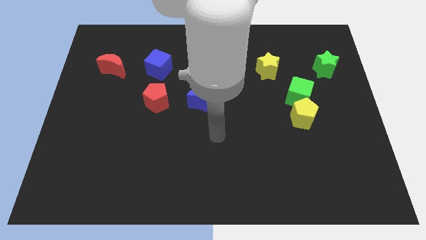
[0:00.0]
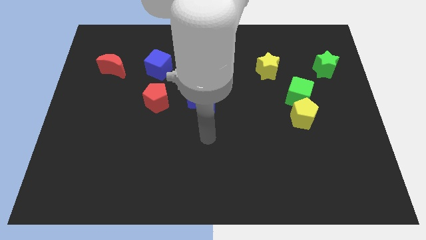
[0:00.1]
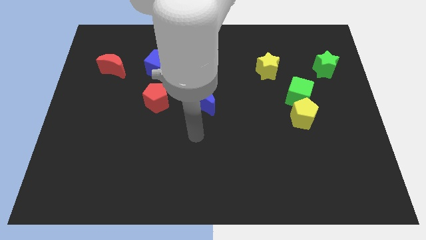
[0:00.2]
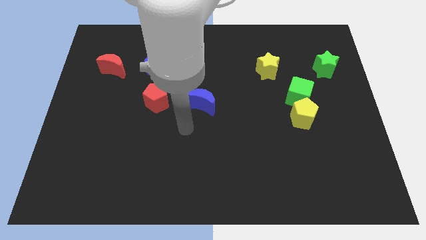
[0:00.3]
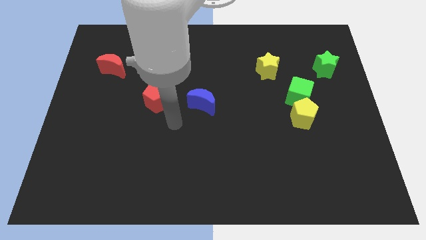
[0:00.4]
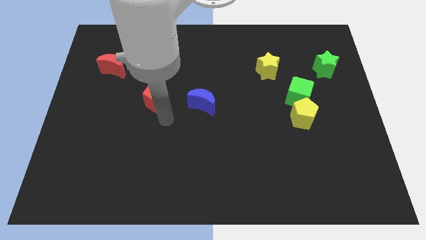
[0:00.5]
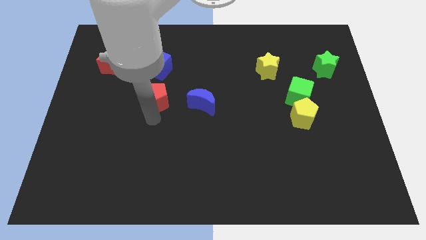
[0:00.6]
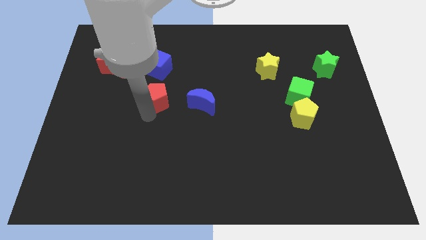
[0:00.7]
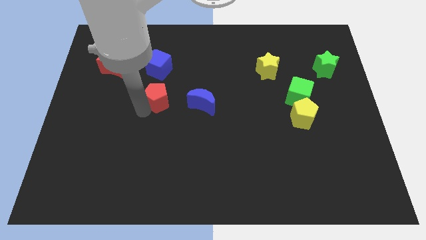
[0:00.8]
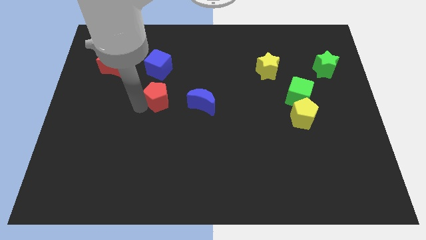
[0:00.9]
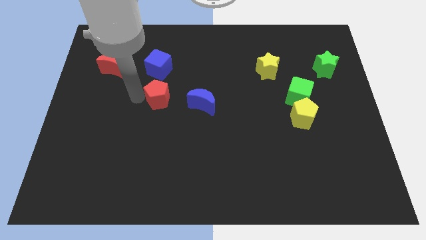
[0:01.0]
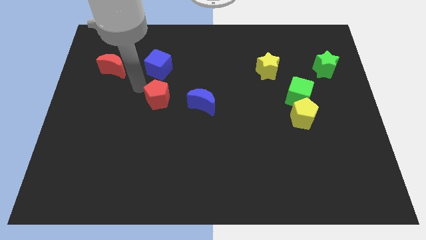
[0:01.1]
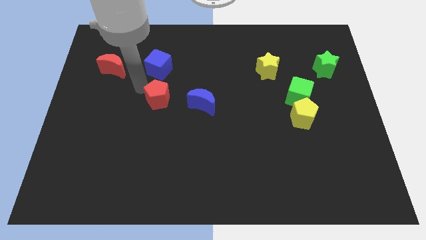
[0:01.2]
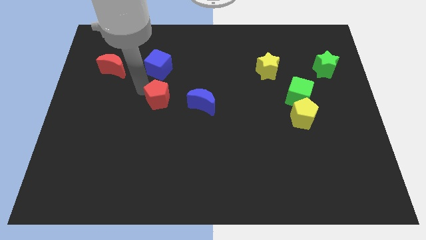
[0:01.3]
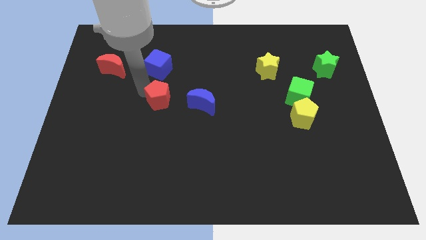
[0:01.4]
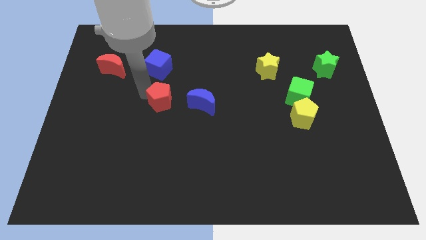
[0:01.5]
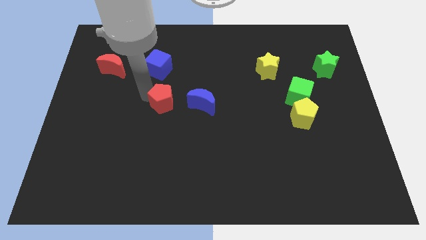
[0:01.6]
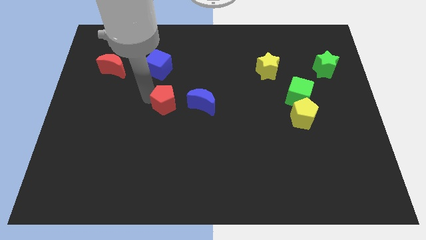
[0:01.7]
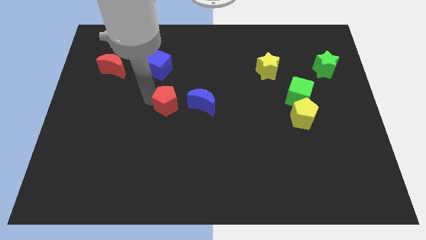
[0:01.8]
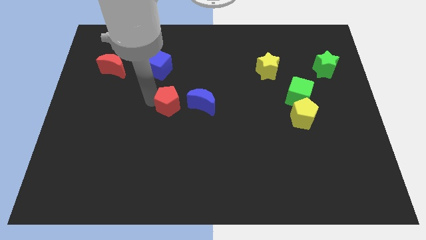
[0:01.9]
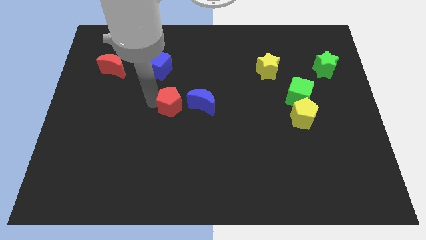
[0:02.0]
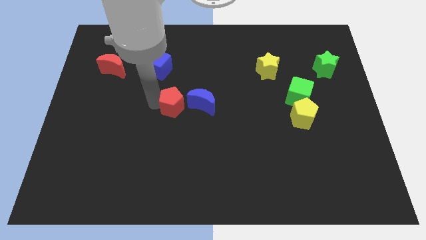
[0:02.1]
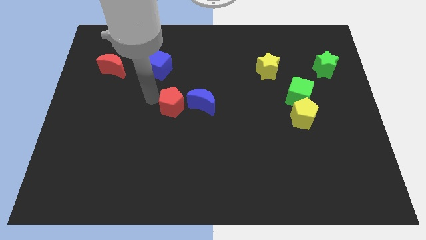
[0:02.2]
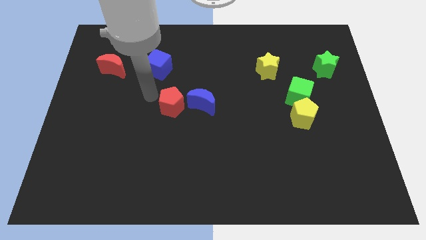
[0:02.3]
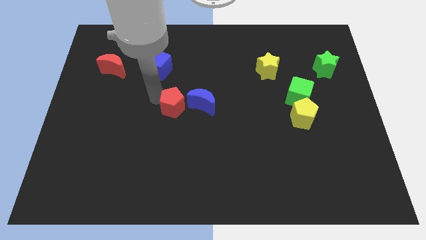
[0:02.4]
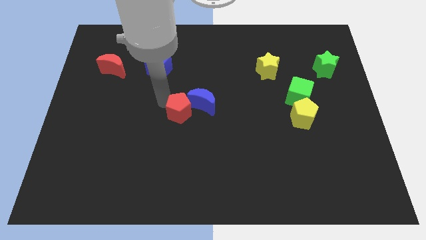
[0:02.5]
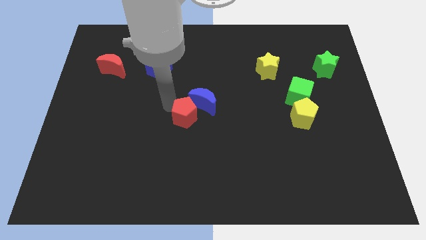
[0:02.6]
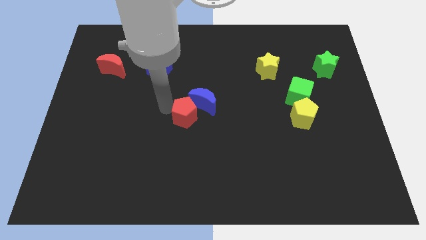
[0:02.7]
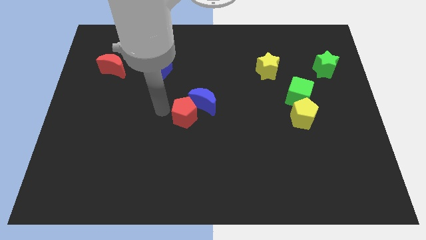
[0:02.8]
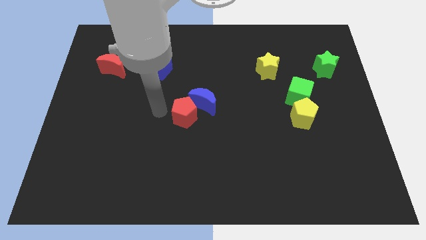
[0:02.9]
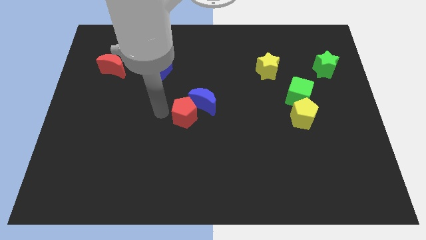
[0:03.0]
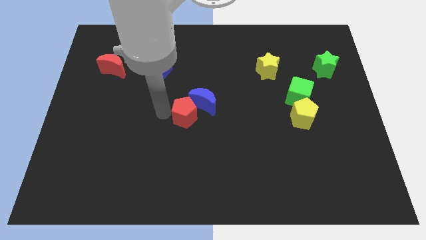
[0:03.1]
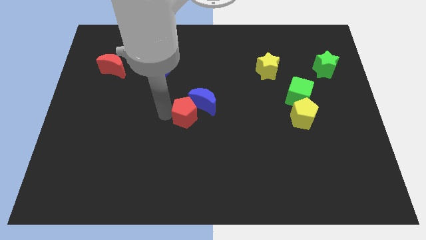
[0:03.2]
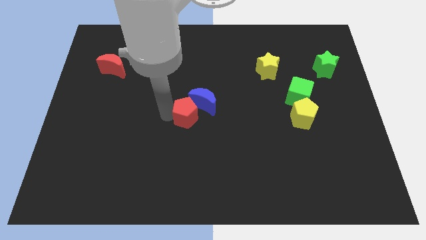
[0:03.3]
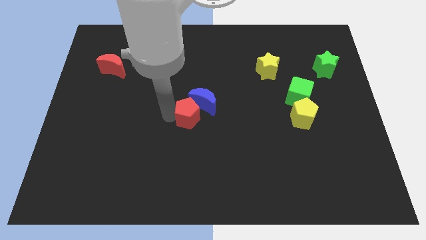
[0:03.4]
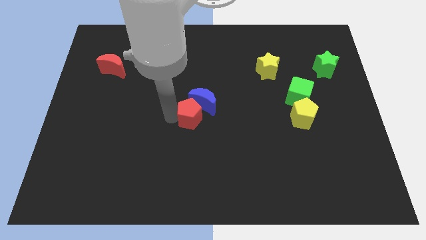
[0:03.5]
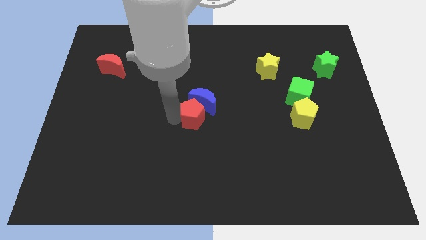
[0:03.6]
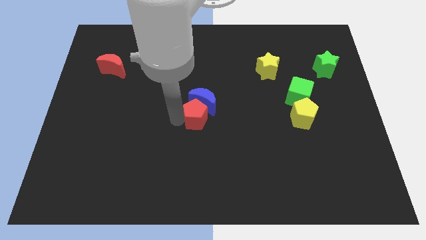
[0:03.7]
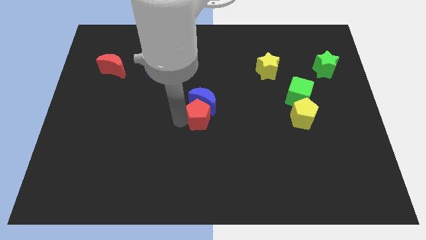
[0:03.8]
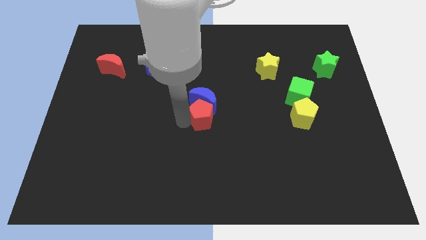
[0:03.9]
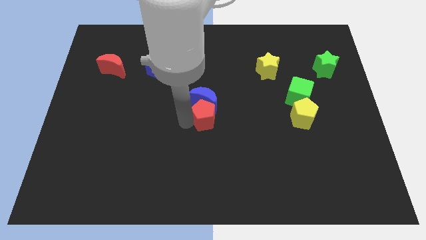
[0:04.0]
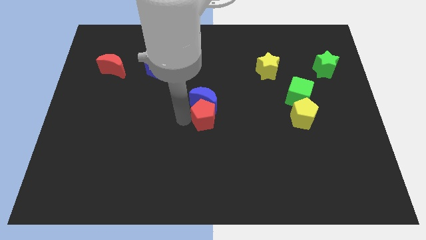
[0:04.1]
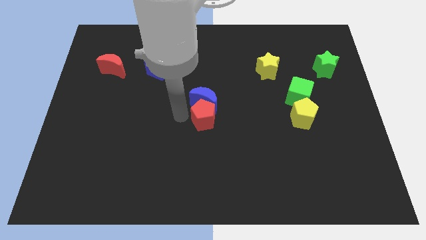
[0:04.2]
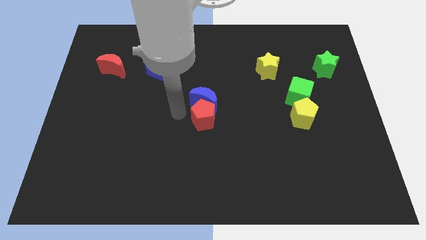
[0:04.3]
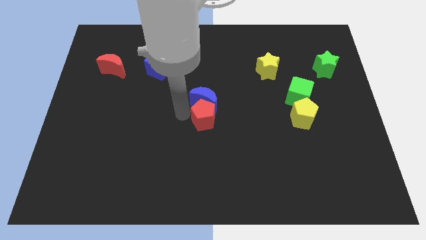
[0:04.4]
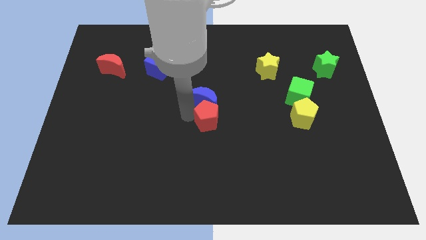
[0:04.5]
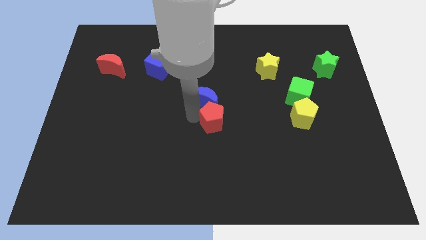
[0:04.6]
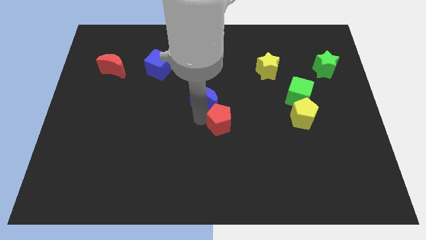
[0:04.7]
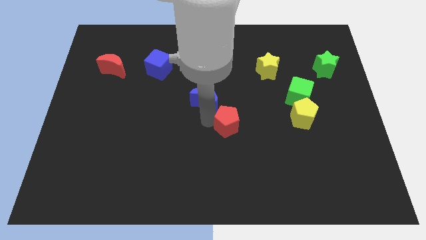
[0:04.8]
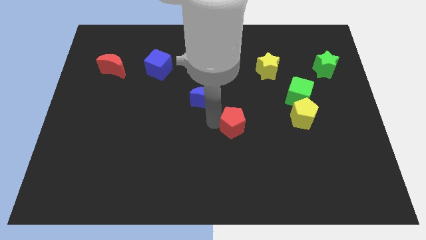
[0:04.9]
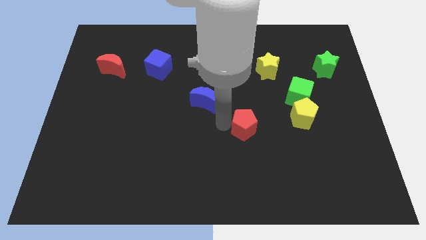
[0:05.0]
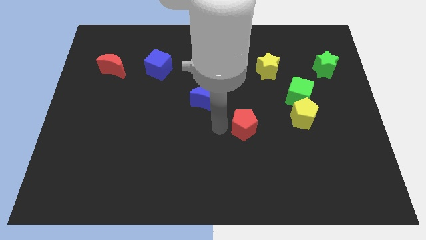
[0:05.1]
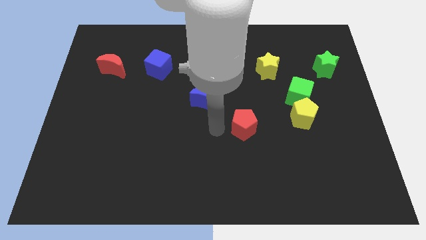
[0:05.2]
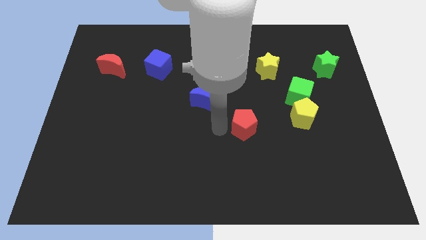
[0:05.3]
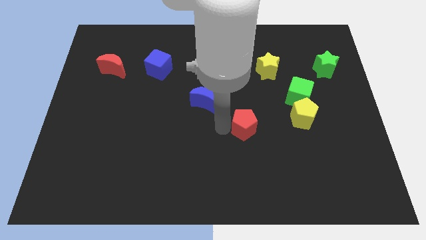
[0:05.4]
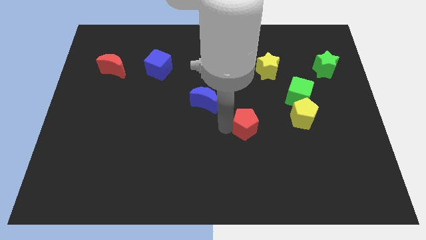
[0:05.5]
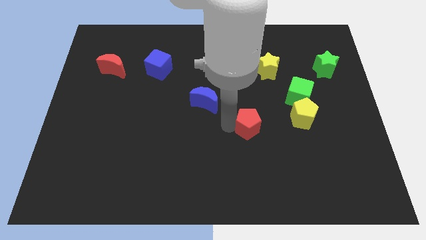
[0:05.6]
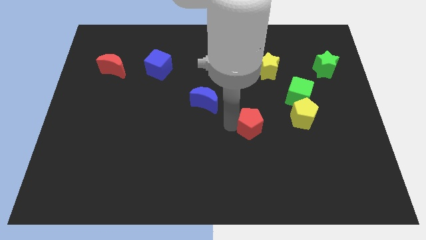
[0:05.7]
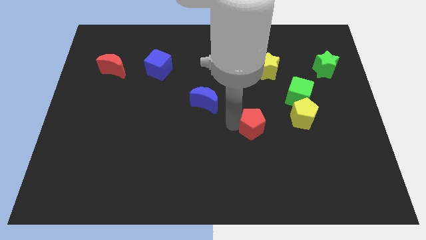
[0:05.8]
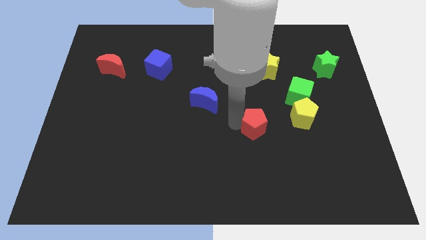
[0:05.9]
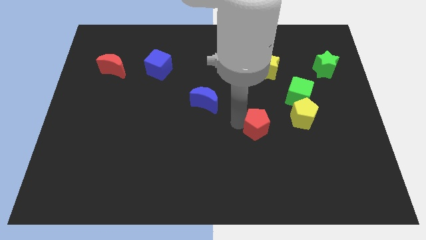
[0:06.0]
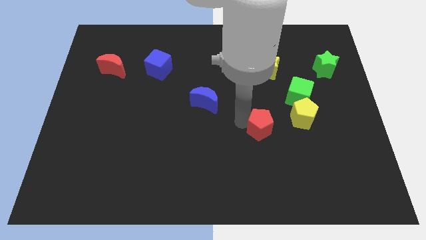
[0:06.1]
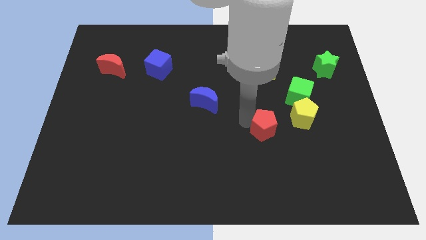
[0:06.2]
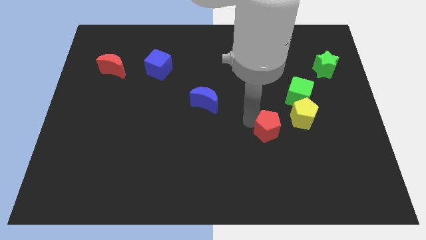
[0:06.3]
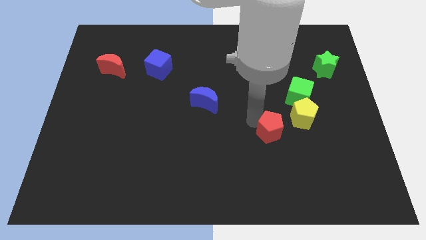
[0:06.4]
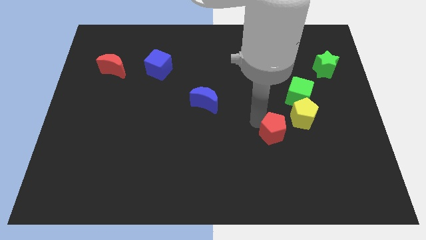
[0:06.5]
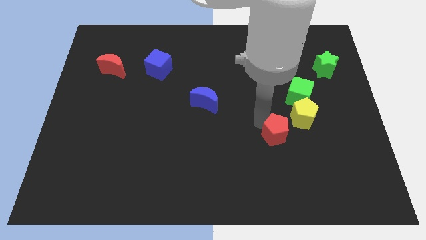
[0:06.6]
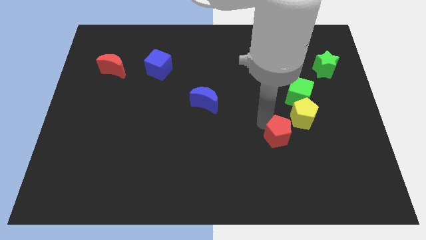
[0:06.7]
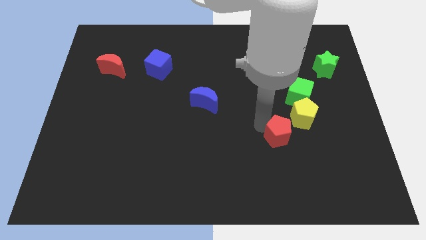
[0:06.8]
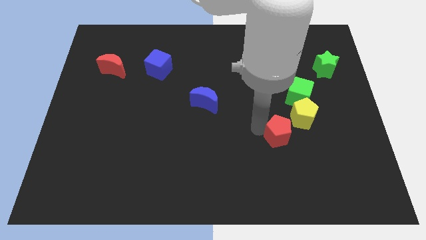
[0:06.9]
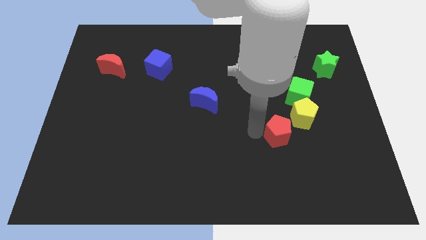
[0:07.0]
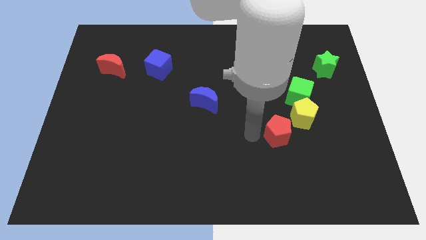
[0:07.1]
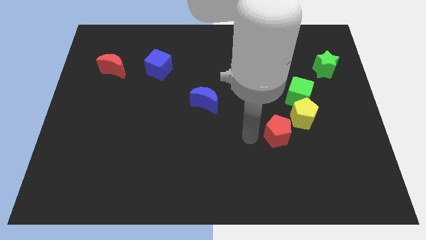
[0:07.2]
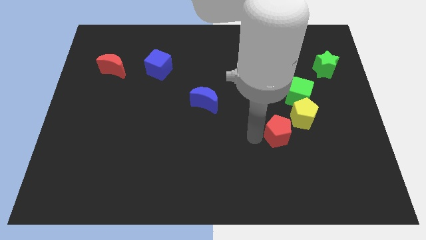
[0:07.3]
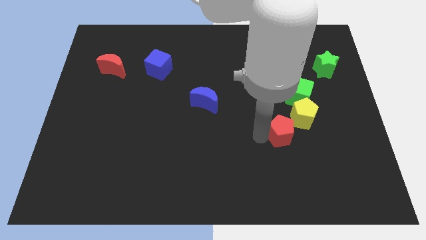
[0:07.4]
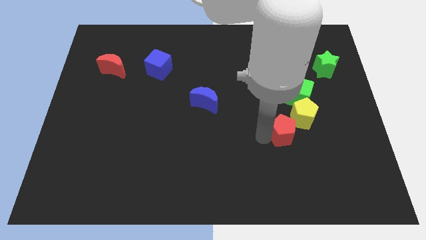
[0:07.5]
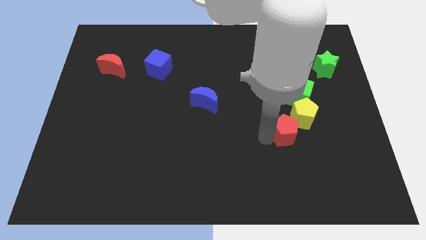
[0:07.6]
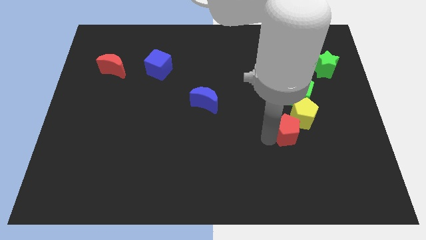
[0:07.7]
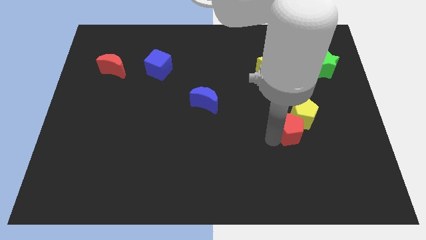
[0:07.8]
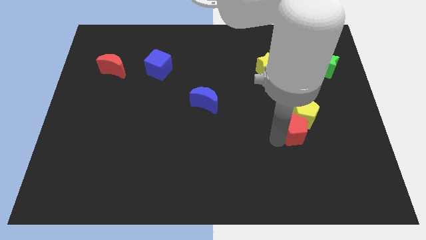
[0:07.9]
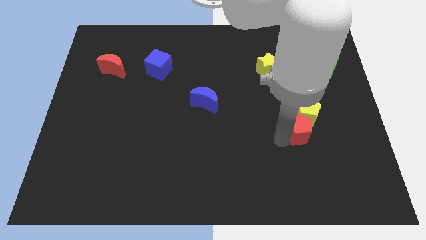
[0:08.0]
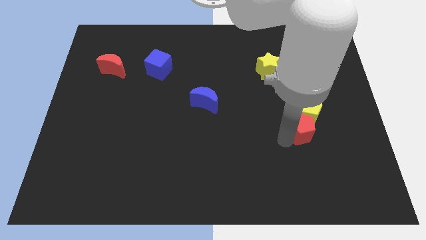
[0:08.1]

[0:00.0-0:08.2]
put the red pentagon diagonally down and to the right of the yellow pentagon
